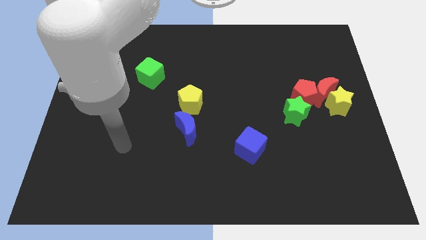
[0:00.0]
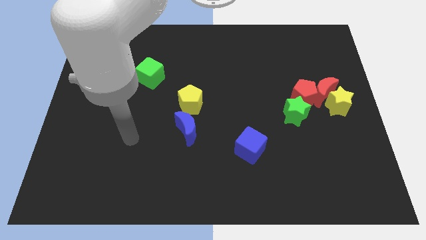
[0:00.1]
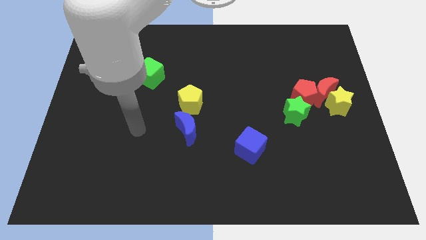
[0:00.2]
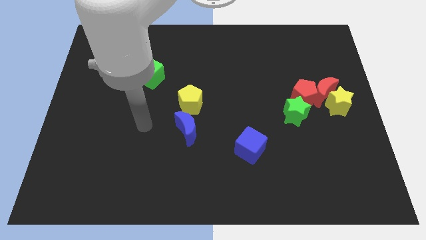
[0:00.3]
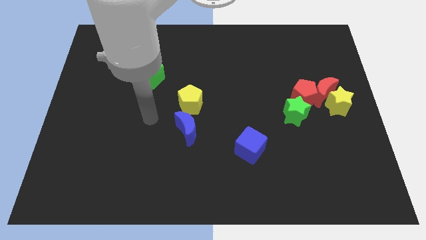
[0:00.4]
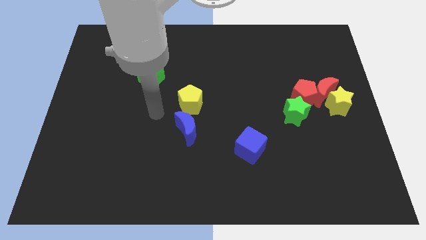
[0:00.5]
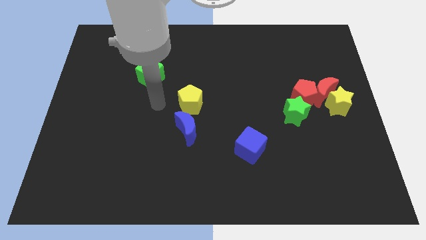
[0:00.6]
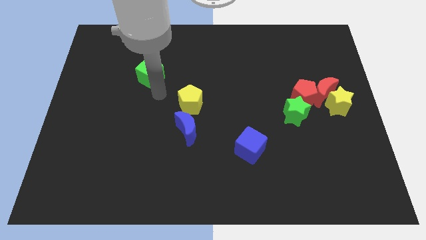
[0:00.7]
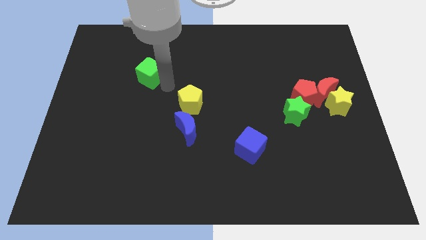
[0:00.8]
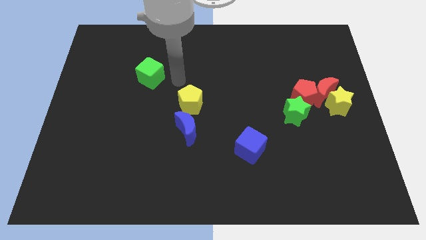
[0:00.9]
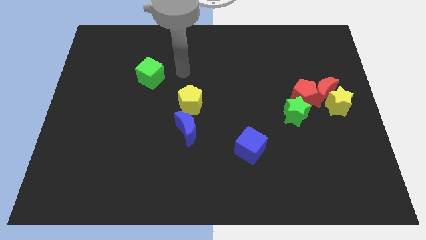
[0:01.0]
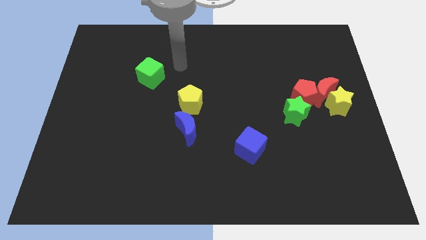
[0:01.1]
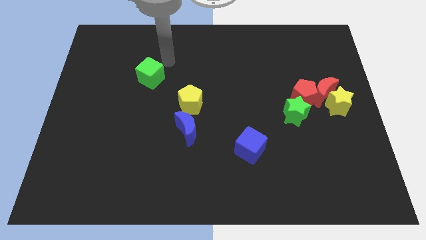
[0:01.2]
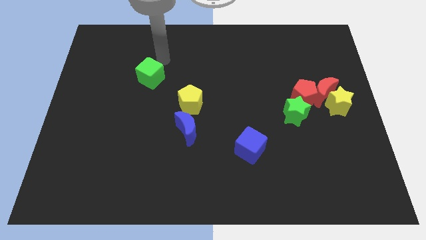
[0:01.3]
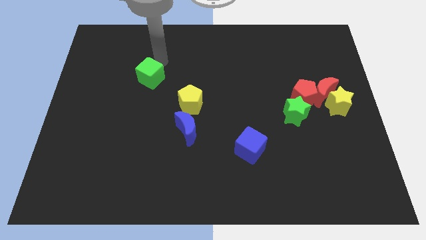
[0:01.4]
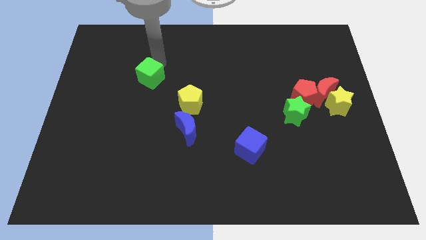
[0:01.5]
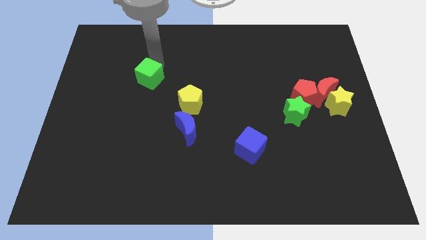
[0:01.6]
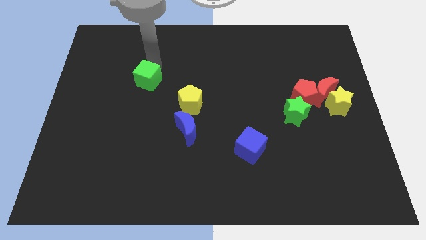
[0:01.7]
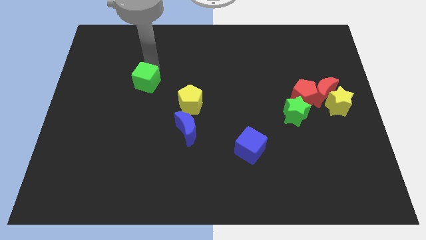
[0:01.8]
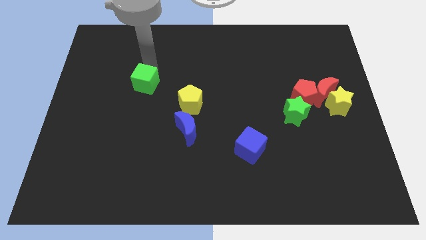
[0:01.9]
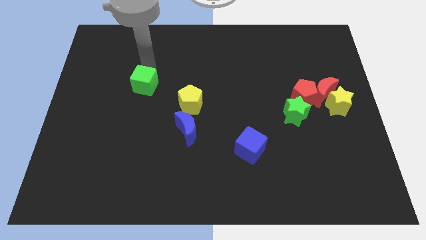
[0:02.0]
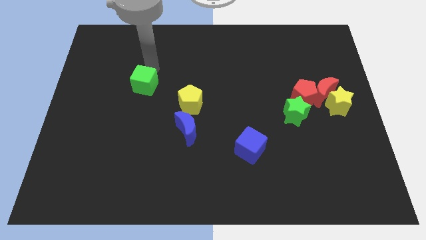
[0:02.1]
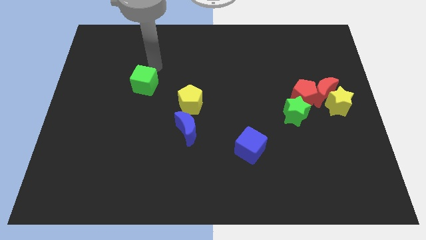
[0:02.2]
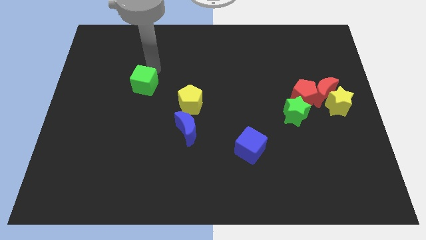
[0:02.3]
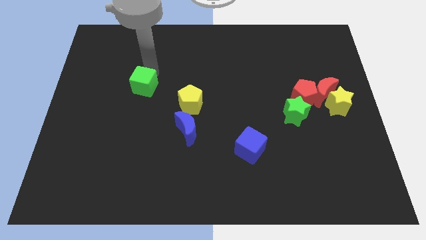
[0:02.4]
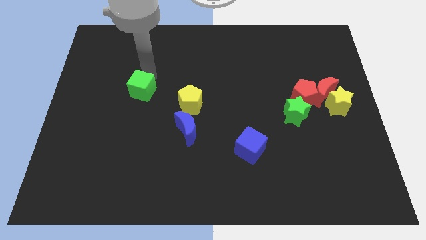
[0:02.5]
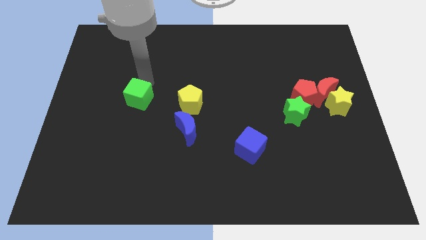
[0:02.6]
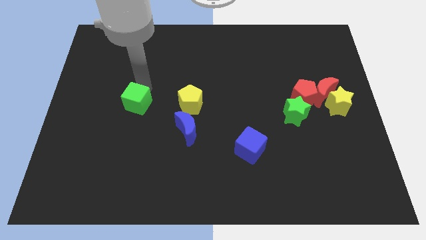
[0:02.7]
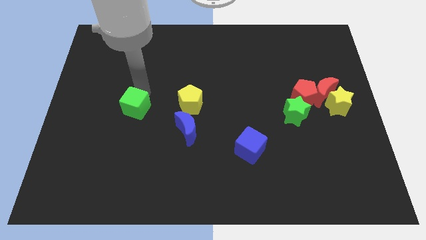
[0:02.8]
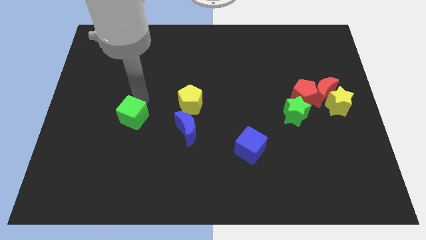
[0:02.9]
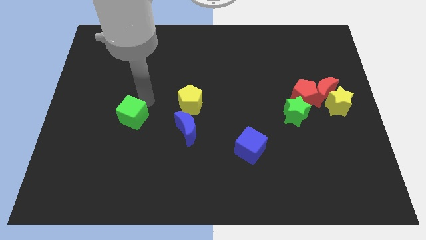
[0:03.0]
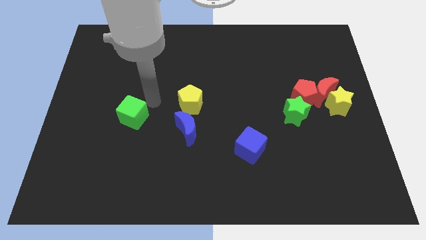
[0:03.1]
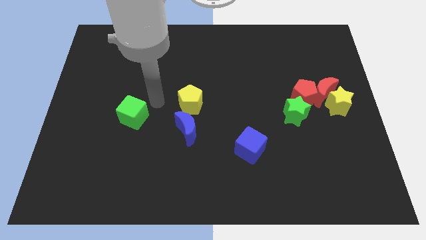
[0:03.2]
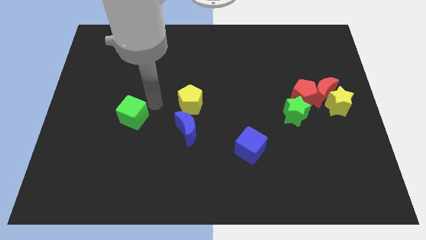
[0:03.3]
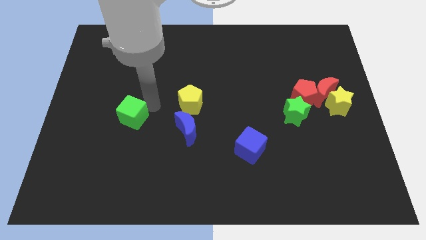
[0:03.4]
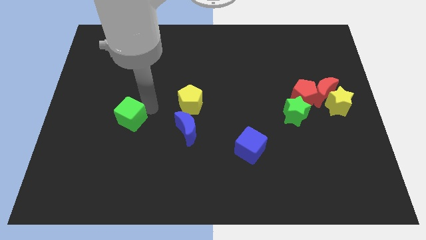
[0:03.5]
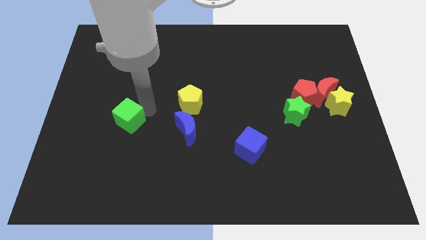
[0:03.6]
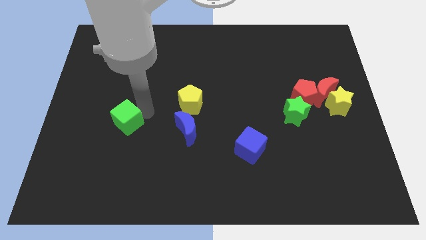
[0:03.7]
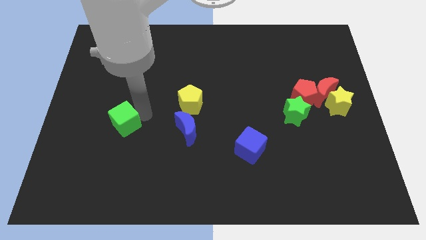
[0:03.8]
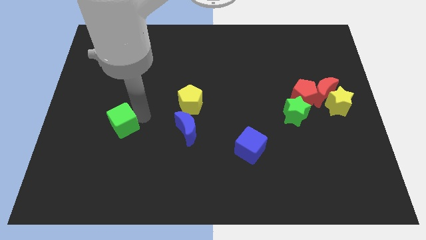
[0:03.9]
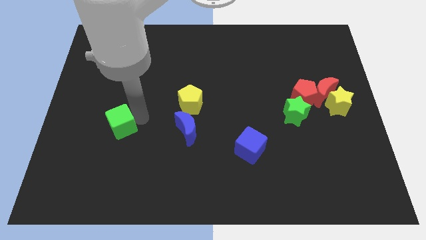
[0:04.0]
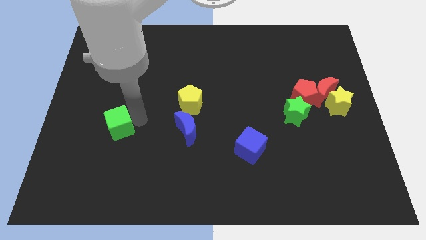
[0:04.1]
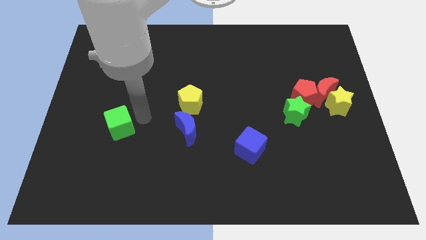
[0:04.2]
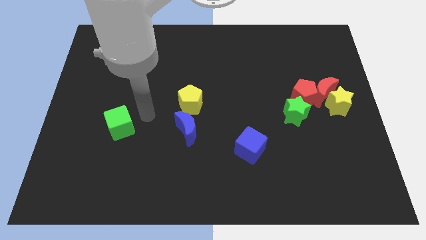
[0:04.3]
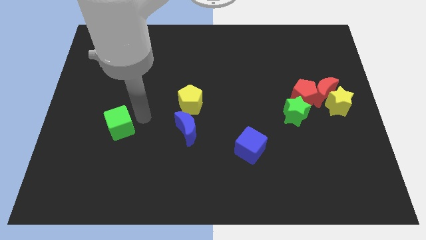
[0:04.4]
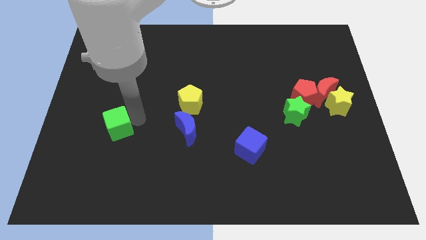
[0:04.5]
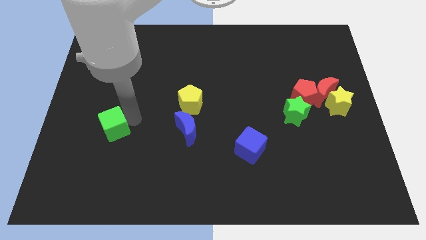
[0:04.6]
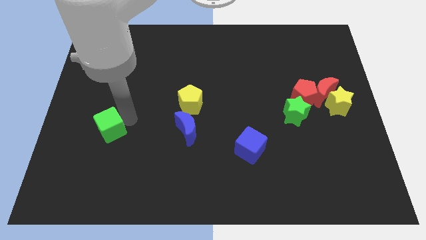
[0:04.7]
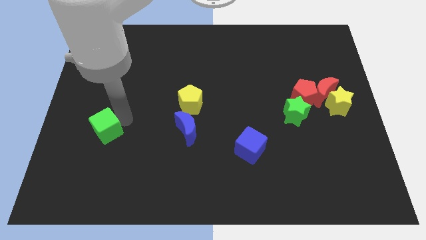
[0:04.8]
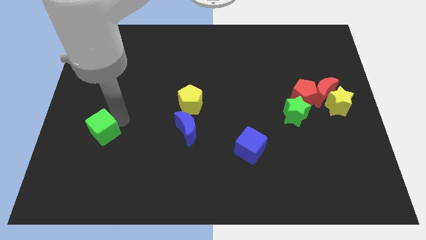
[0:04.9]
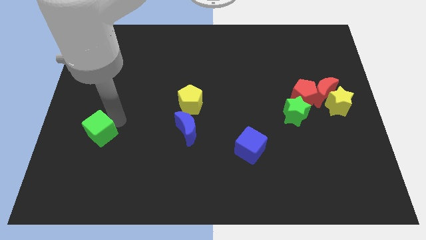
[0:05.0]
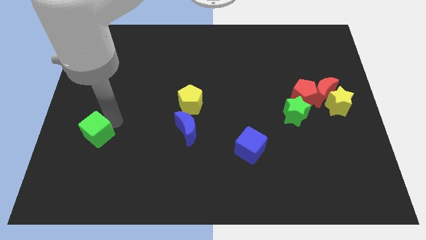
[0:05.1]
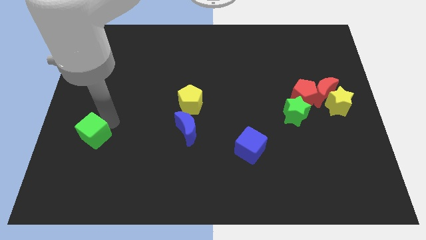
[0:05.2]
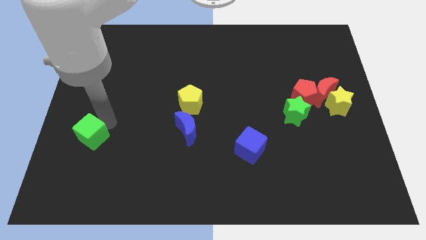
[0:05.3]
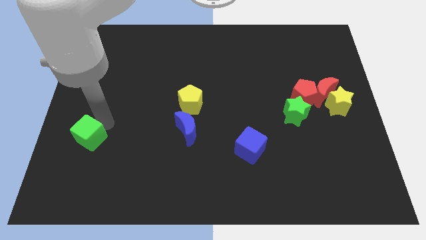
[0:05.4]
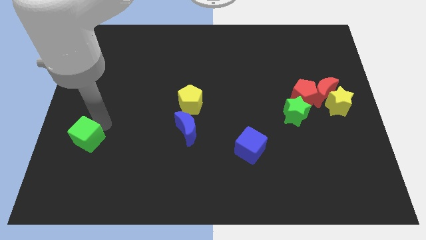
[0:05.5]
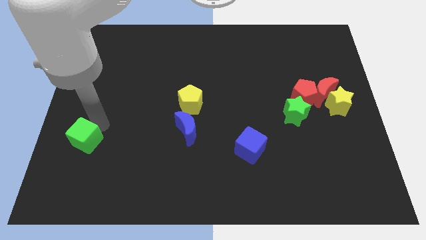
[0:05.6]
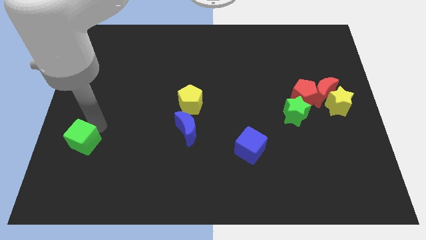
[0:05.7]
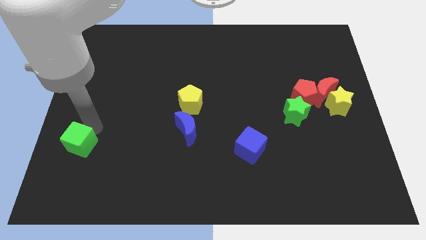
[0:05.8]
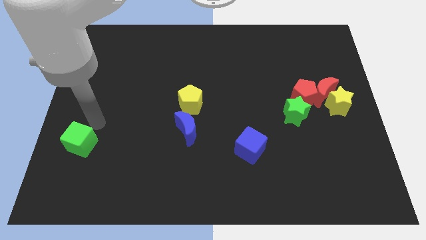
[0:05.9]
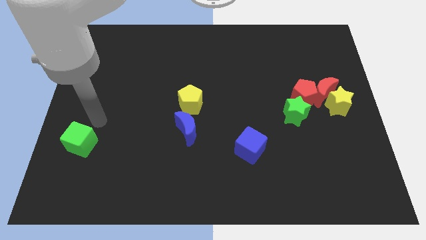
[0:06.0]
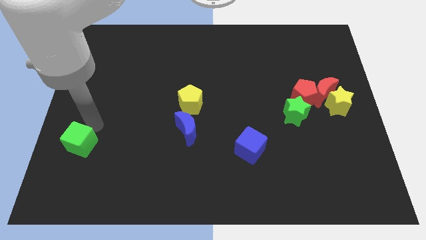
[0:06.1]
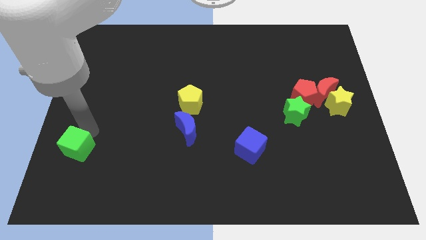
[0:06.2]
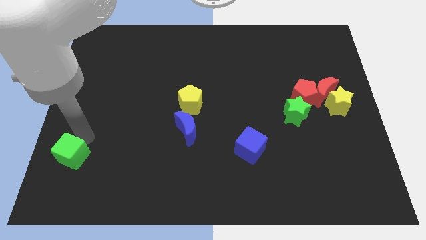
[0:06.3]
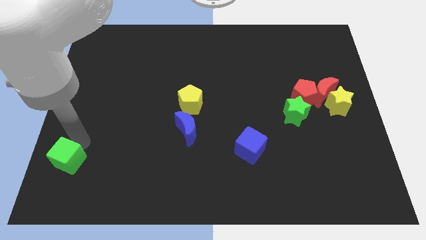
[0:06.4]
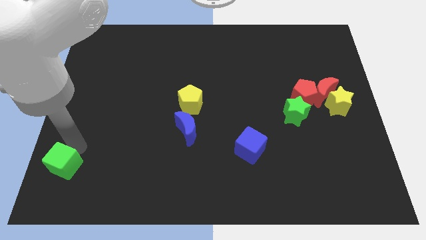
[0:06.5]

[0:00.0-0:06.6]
slide the green cube to the bottom left of the board
